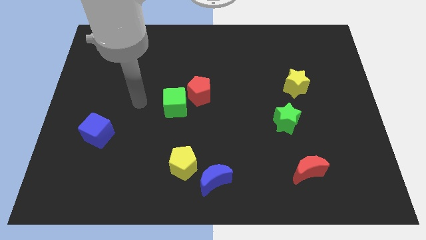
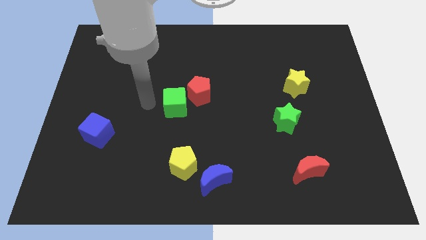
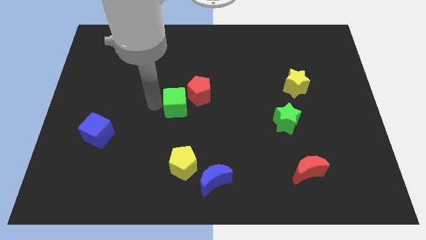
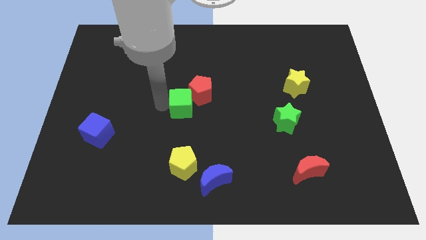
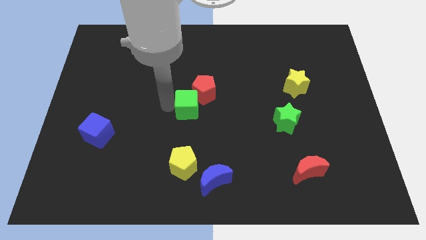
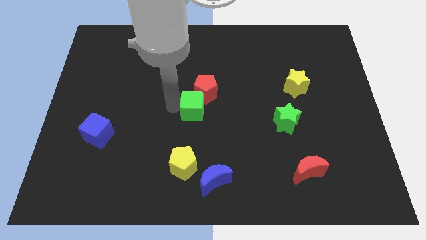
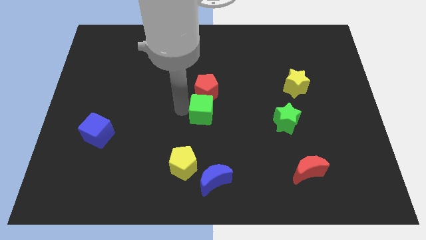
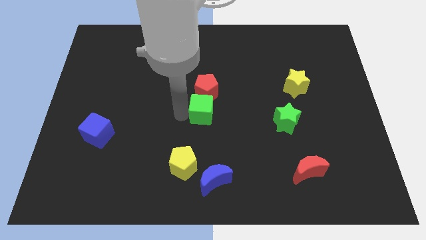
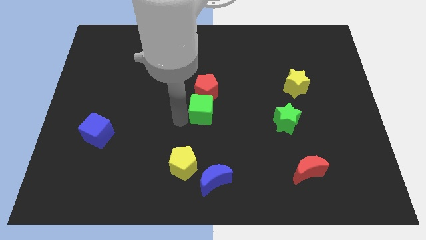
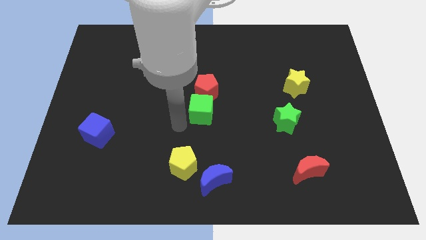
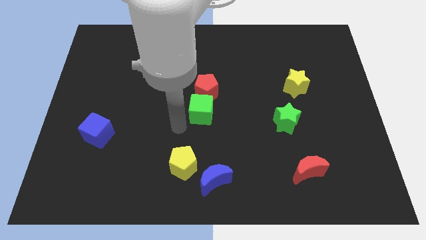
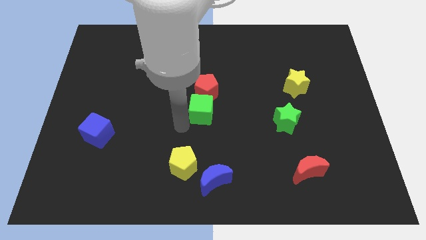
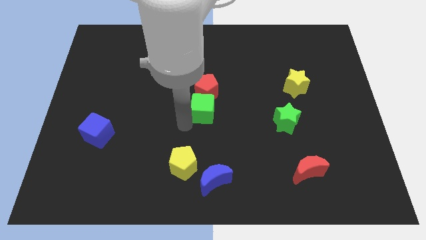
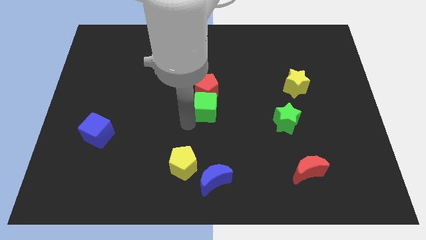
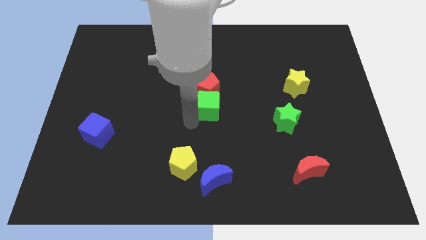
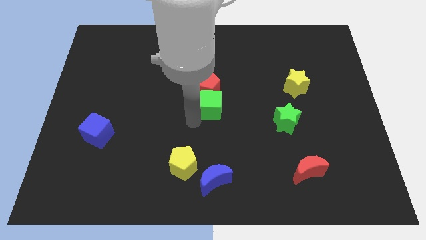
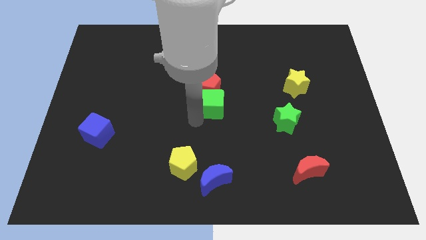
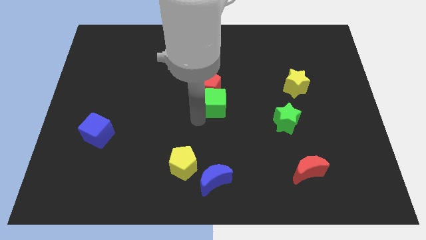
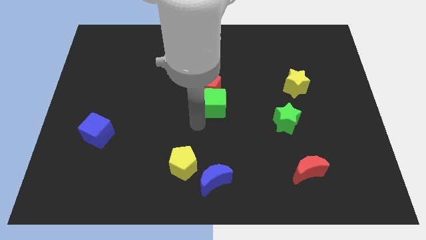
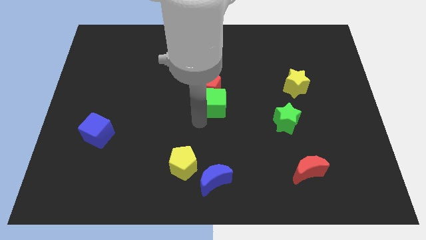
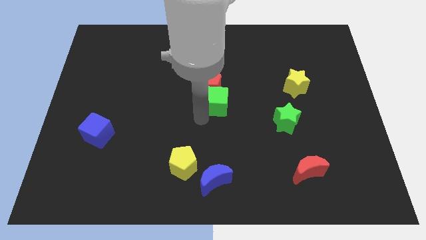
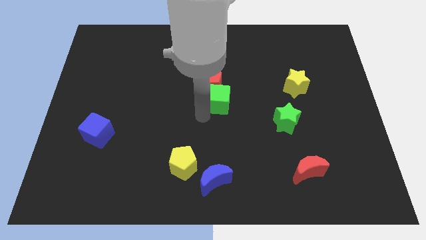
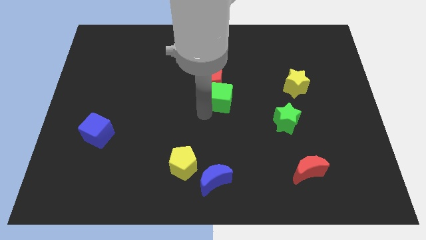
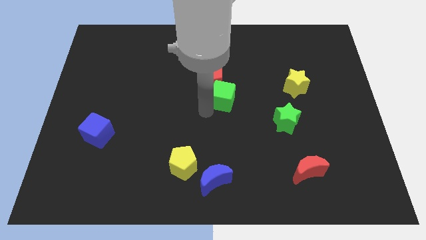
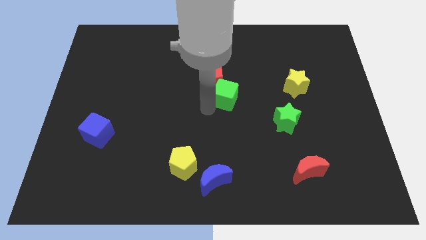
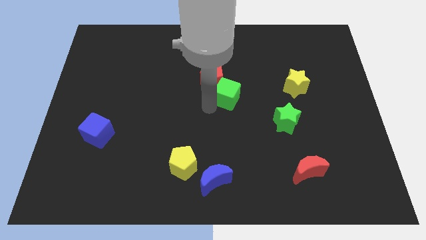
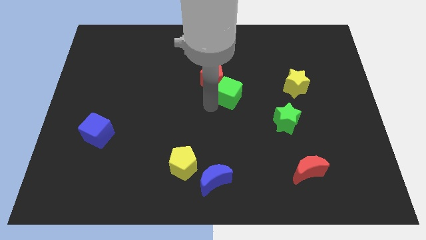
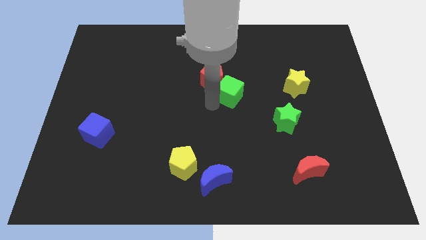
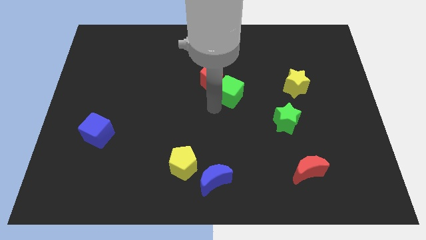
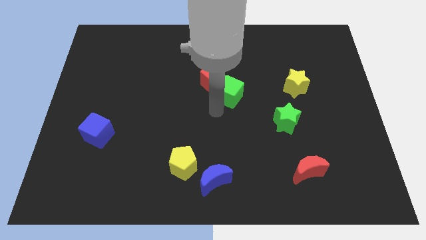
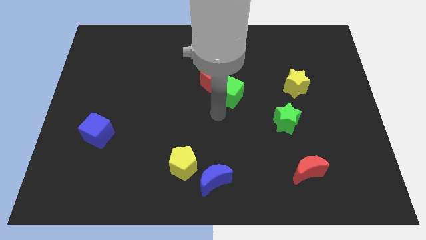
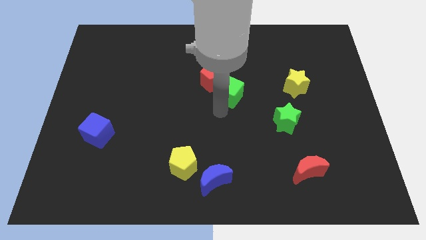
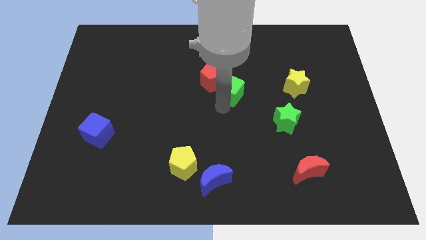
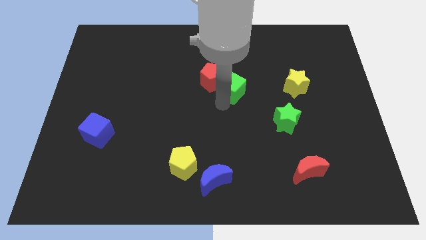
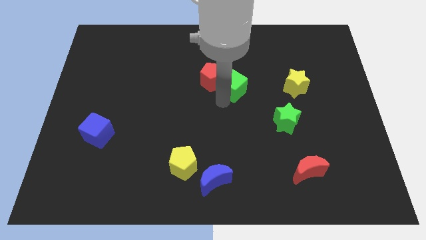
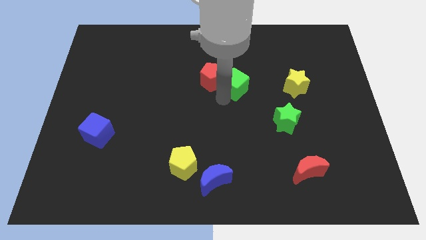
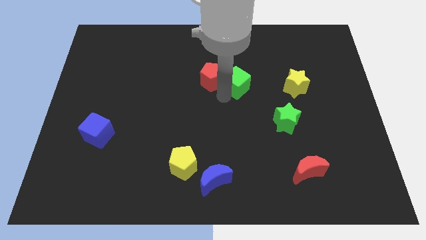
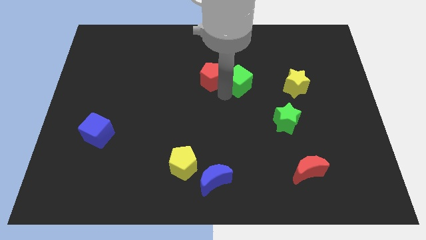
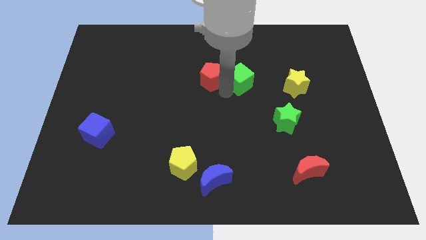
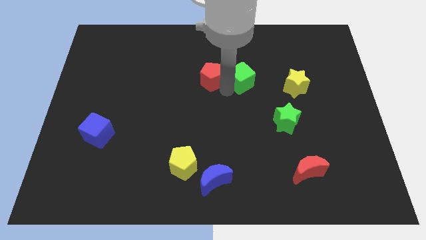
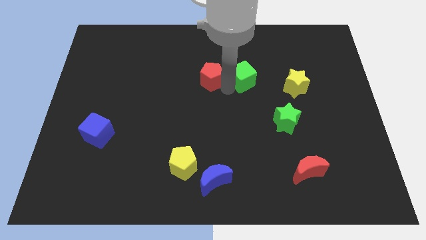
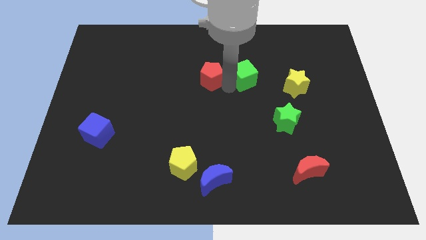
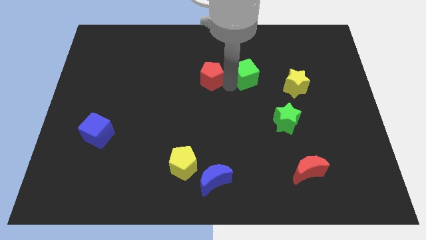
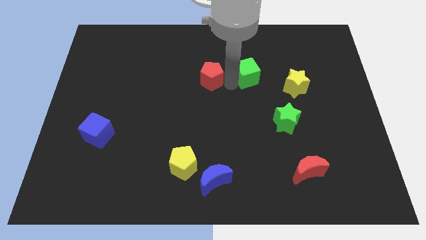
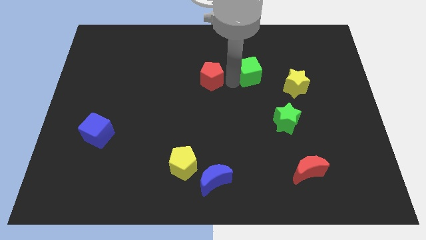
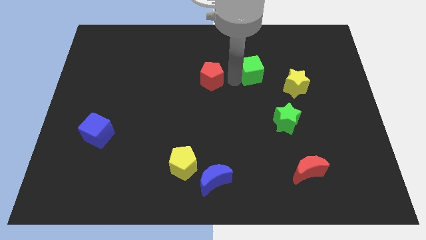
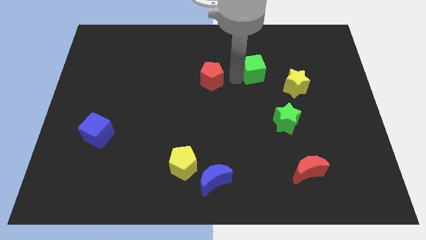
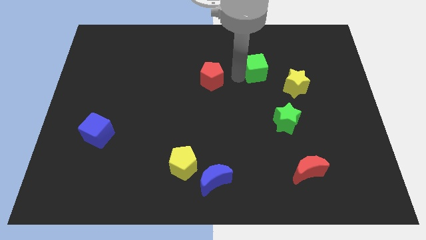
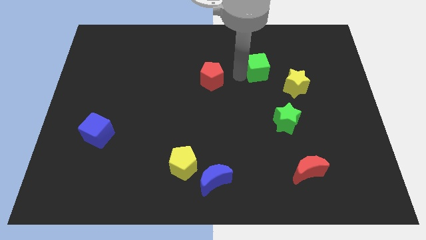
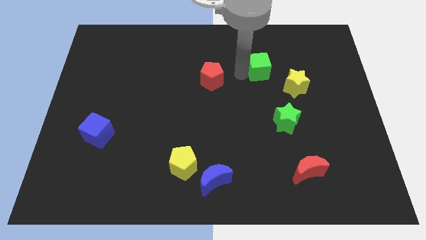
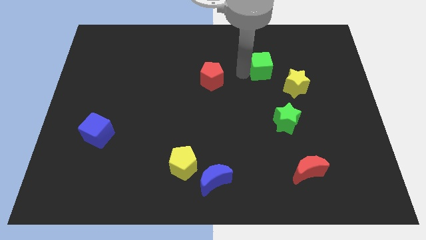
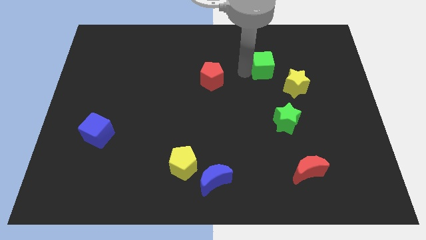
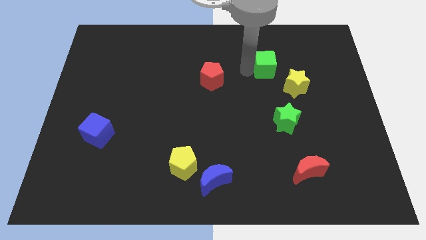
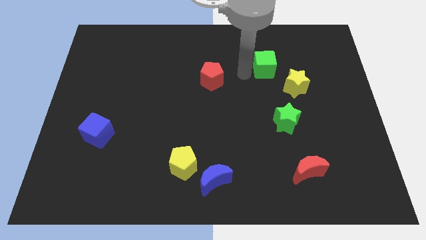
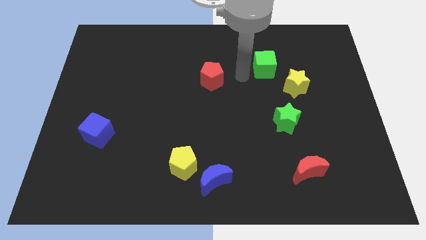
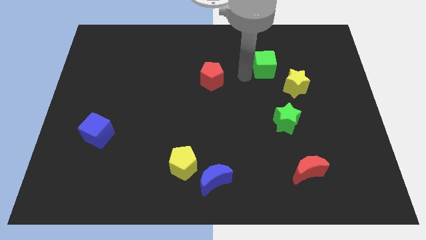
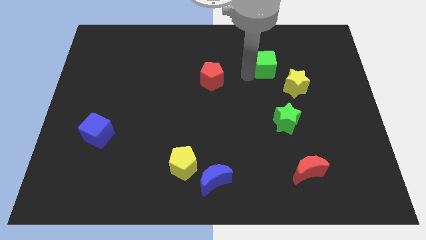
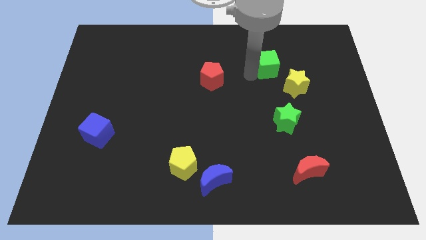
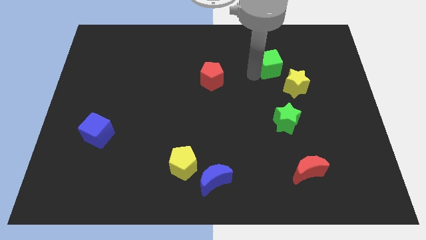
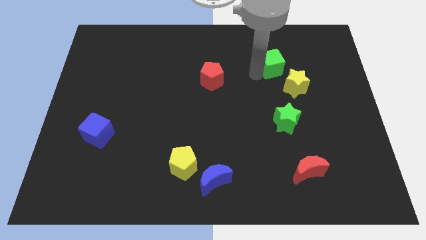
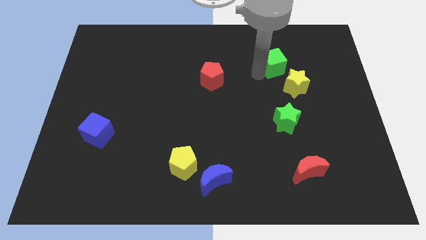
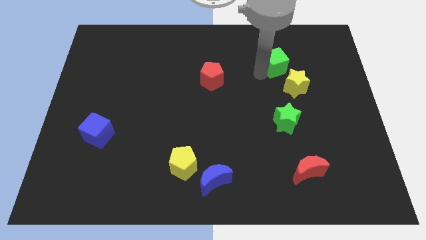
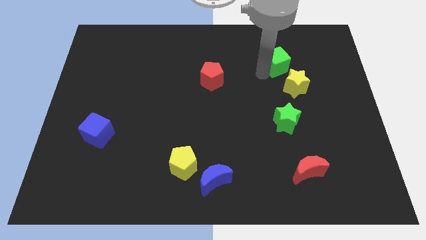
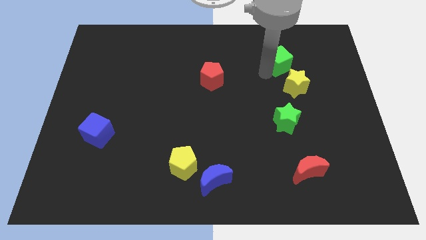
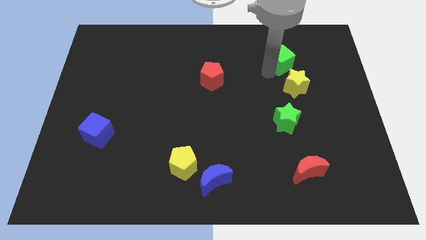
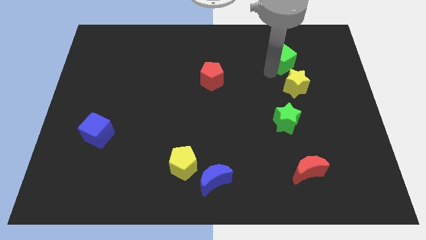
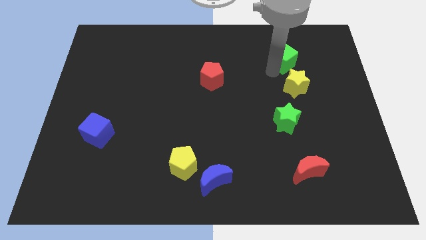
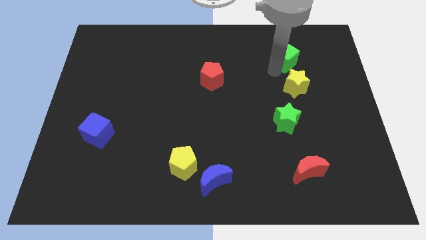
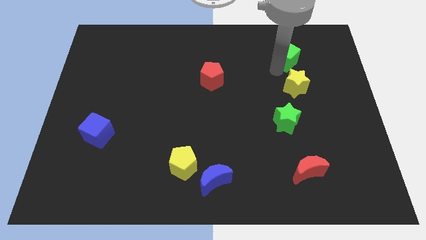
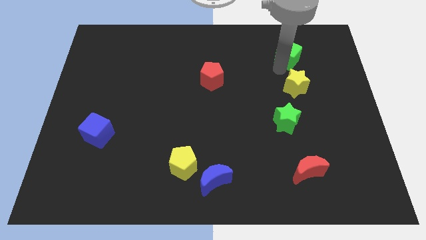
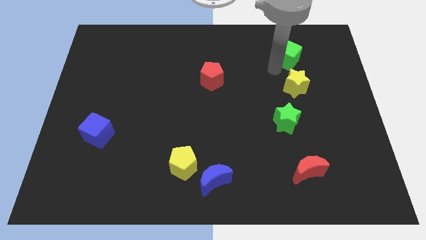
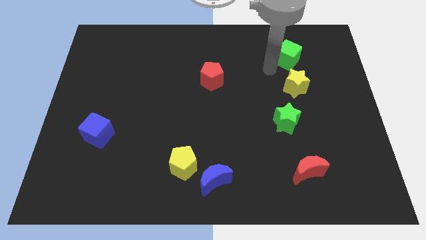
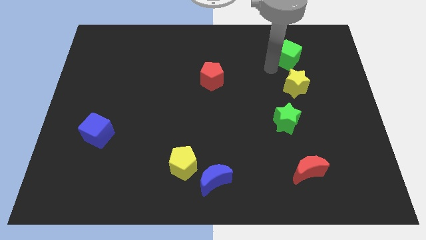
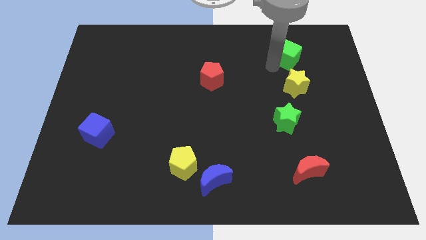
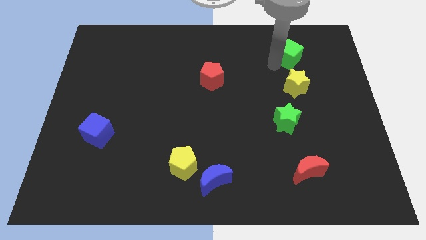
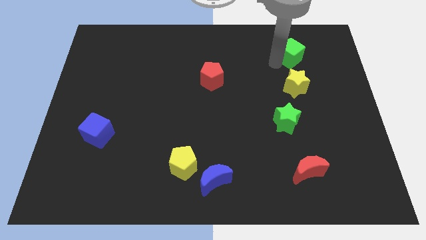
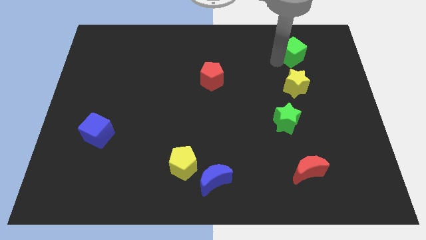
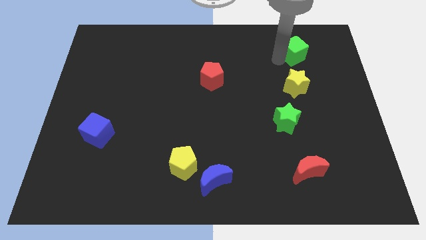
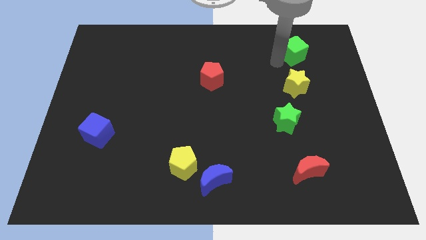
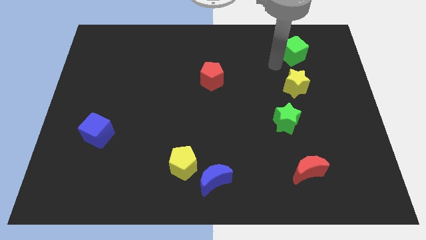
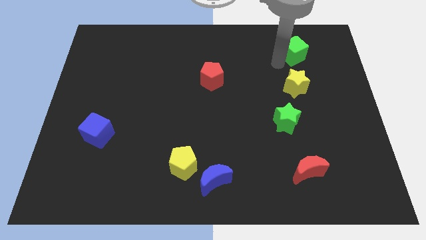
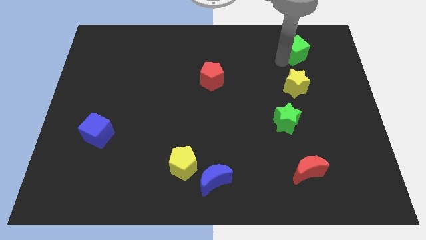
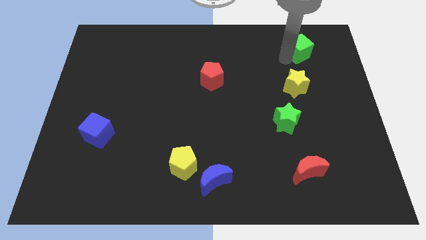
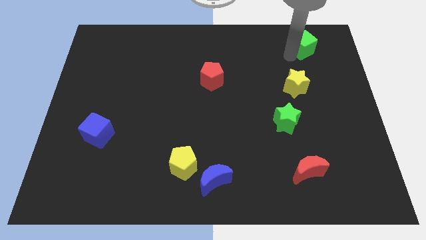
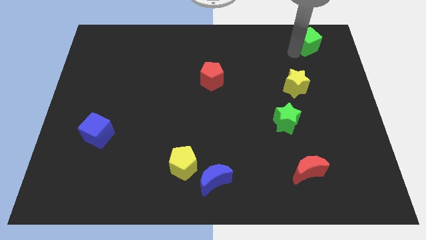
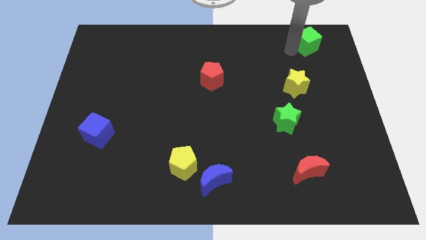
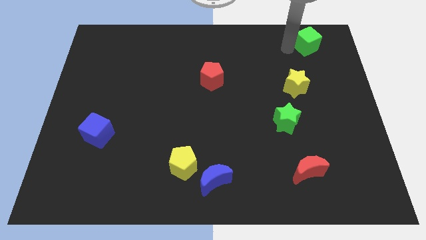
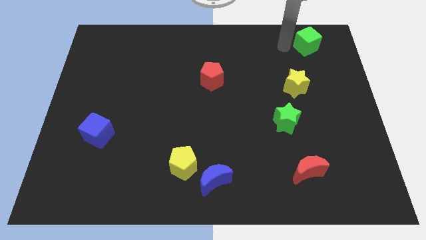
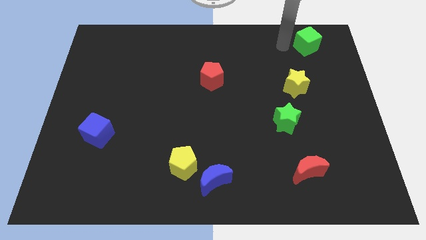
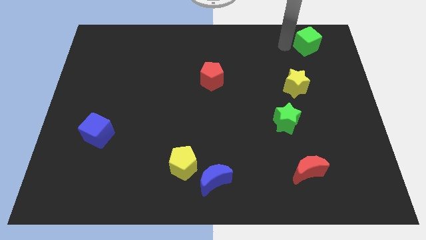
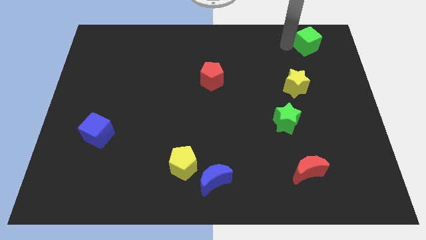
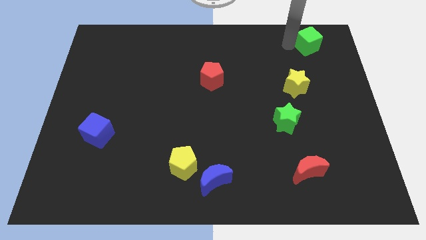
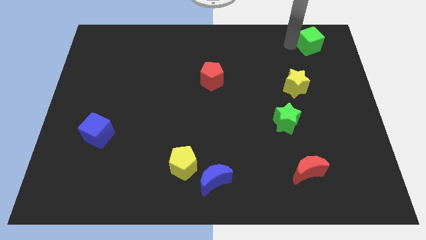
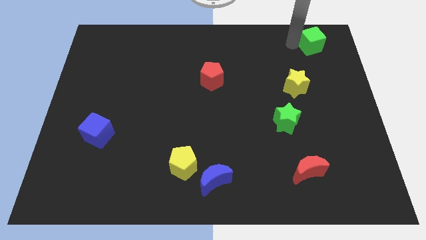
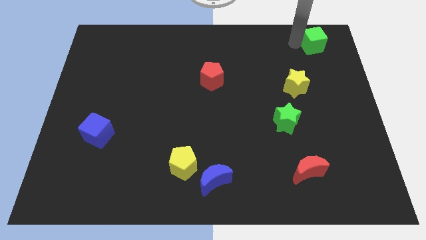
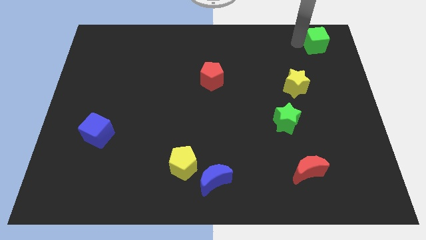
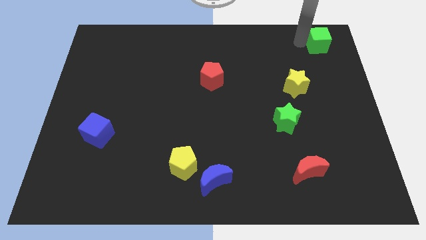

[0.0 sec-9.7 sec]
slide the green cube to the top right of the board
